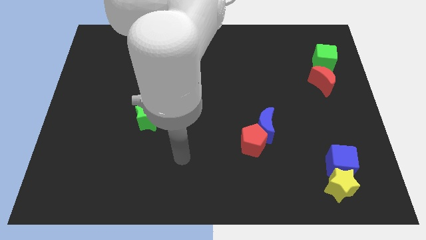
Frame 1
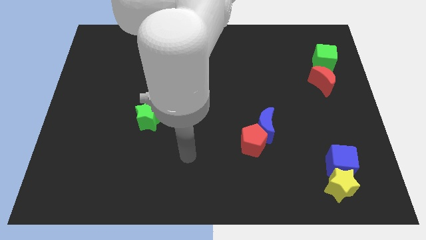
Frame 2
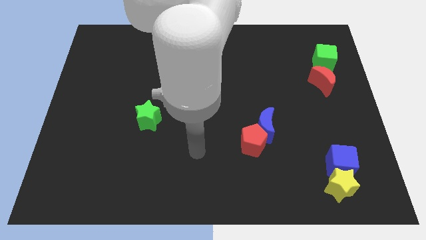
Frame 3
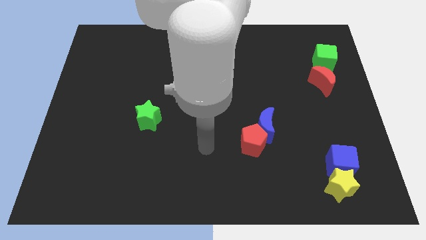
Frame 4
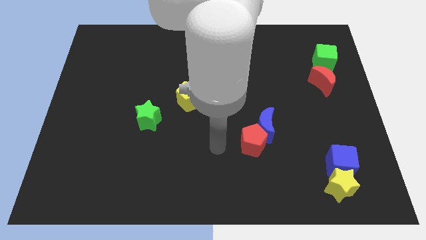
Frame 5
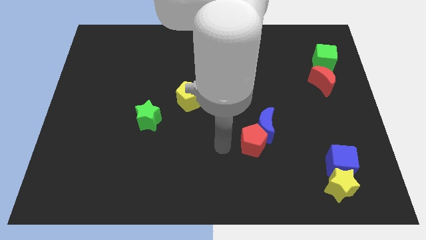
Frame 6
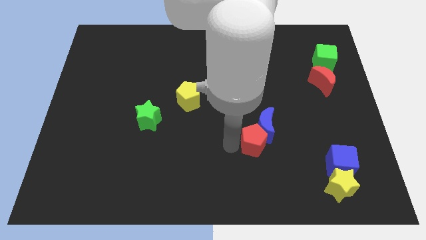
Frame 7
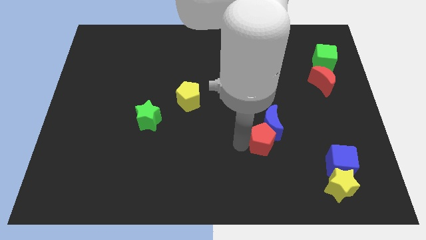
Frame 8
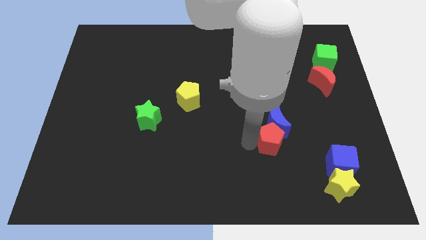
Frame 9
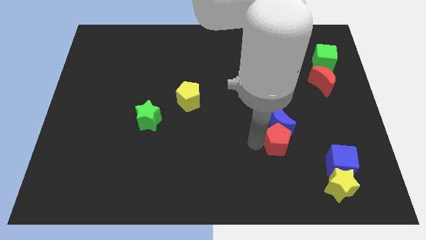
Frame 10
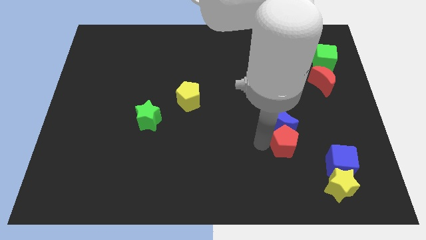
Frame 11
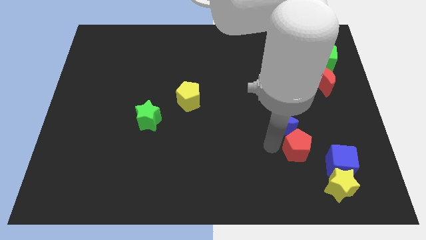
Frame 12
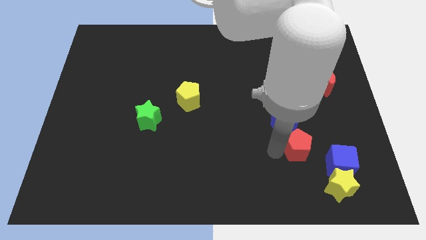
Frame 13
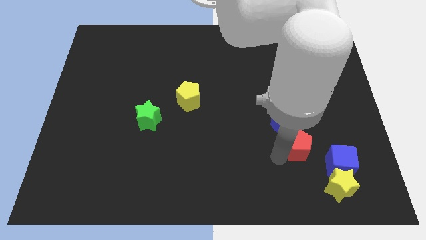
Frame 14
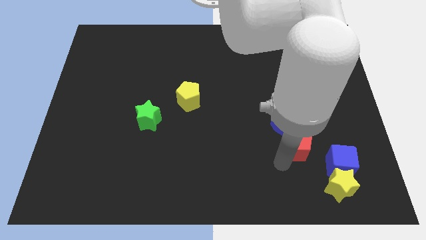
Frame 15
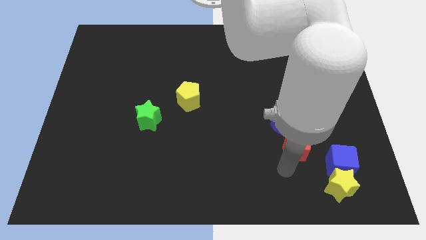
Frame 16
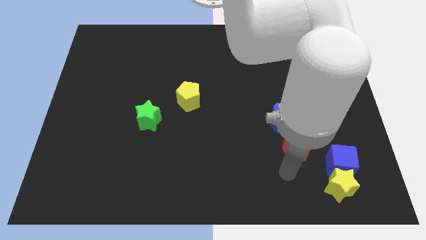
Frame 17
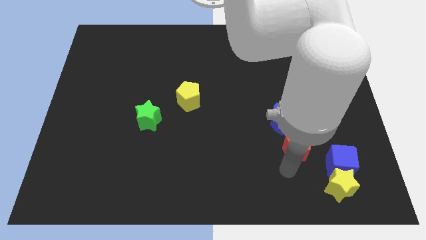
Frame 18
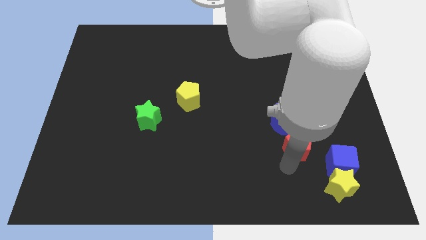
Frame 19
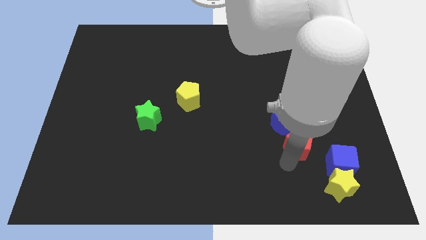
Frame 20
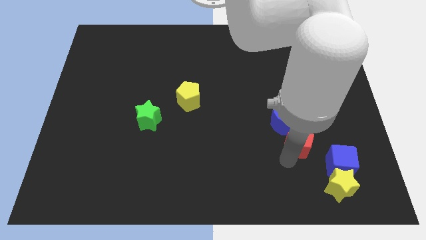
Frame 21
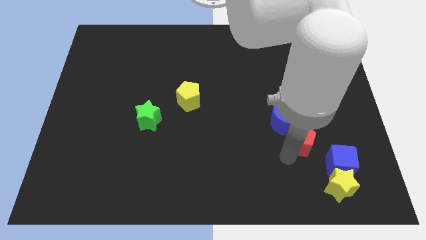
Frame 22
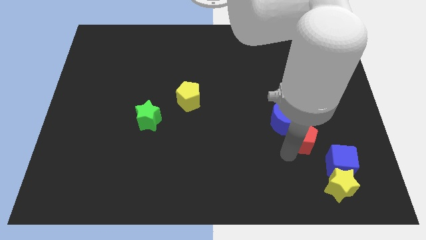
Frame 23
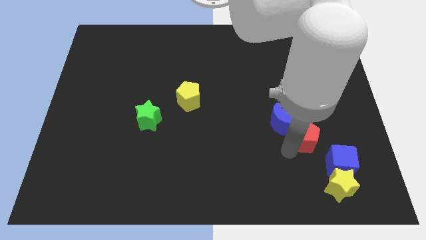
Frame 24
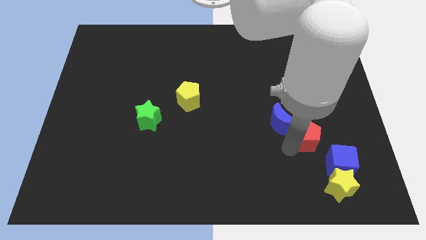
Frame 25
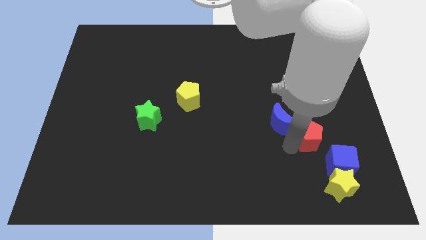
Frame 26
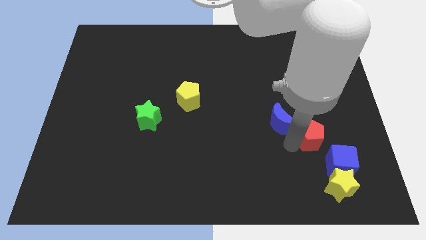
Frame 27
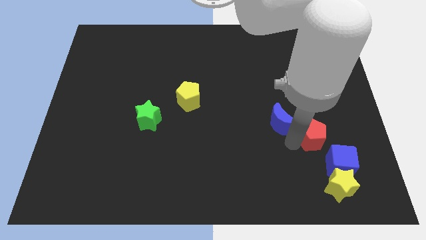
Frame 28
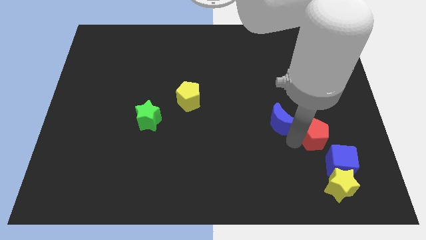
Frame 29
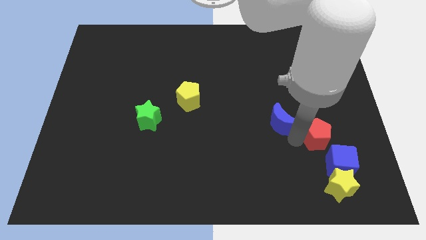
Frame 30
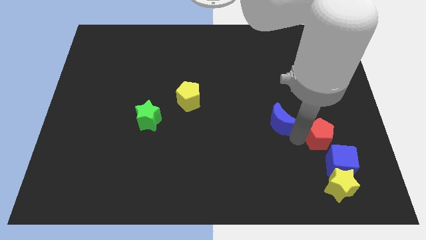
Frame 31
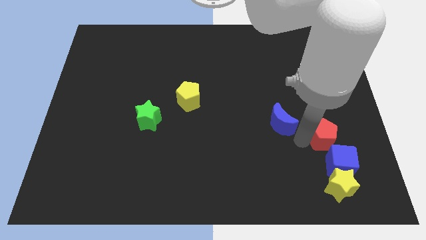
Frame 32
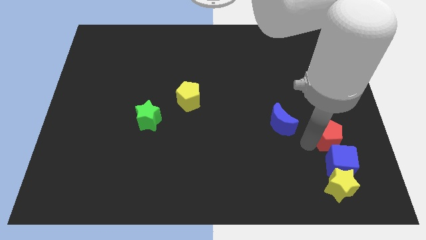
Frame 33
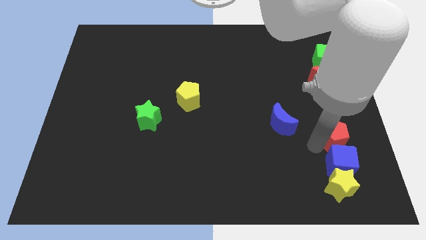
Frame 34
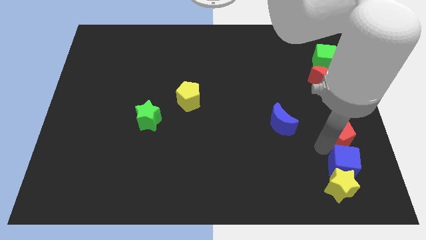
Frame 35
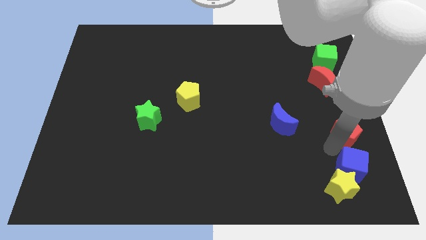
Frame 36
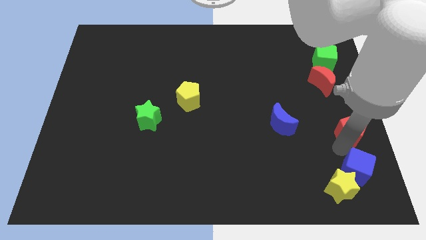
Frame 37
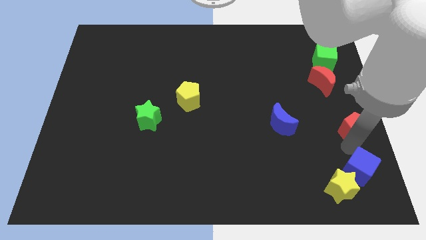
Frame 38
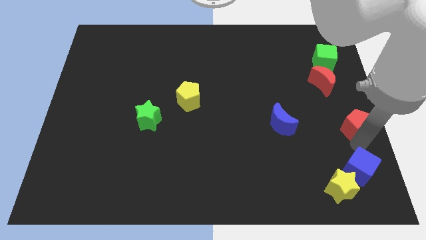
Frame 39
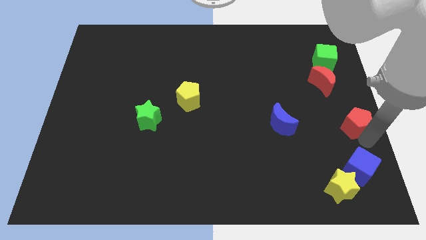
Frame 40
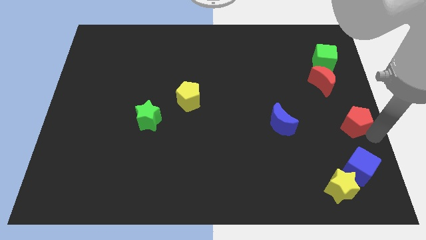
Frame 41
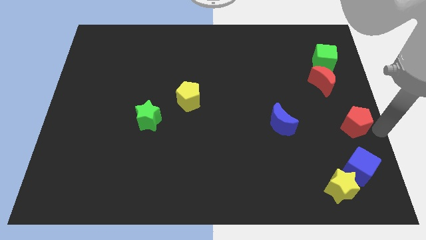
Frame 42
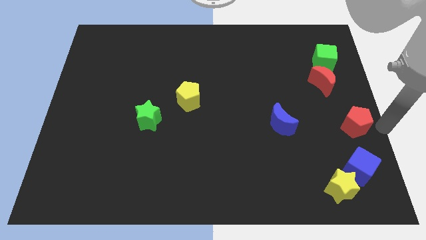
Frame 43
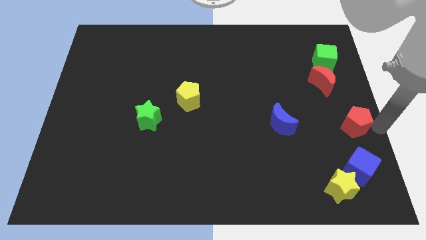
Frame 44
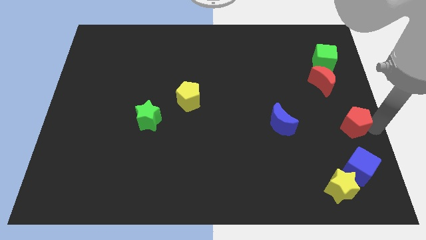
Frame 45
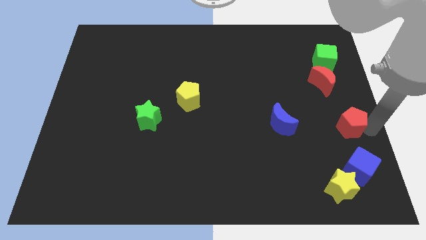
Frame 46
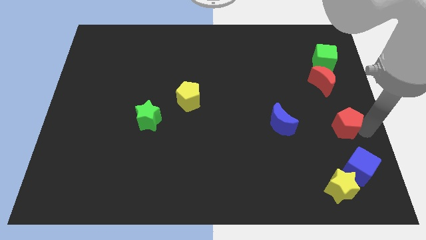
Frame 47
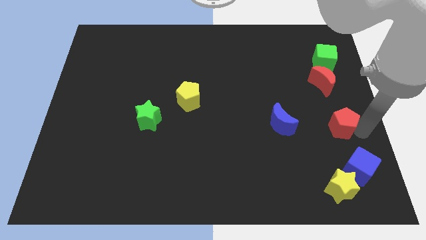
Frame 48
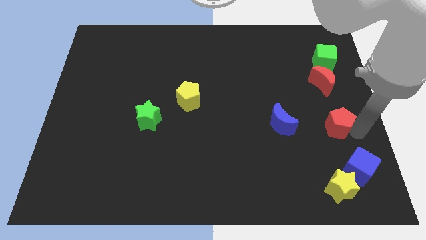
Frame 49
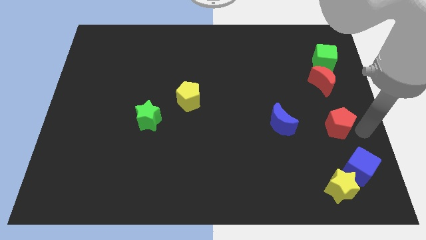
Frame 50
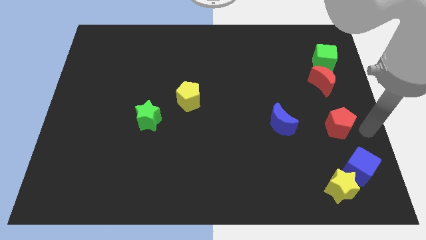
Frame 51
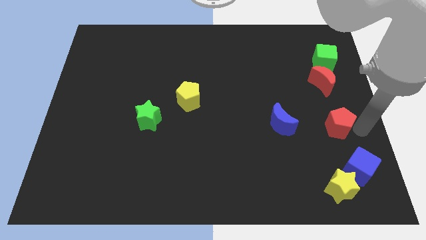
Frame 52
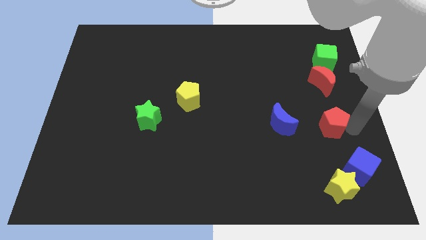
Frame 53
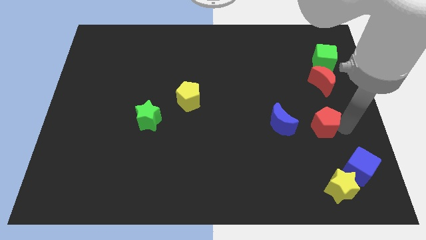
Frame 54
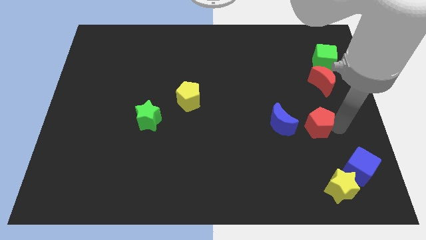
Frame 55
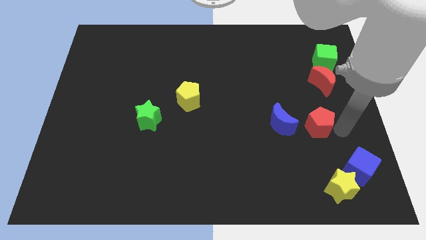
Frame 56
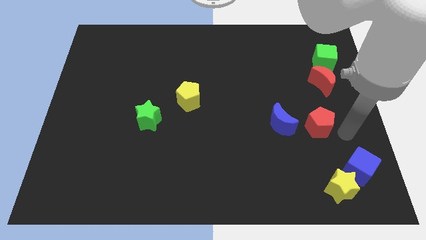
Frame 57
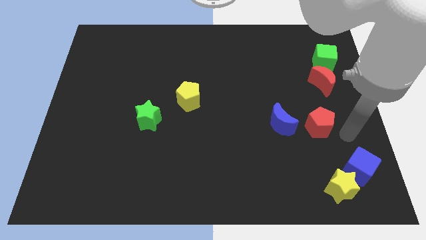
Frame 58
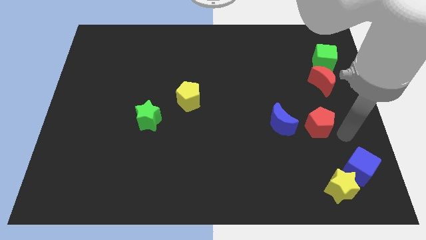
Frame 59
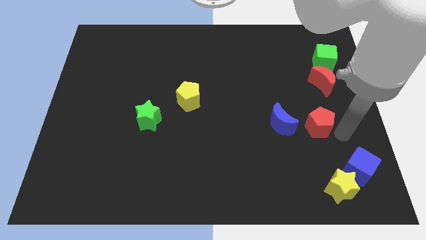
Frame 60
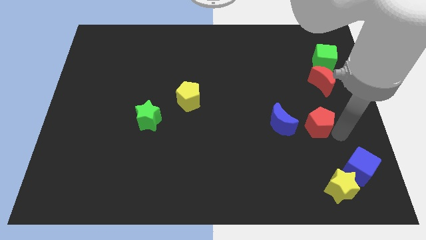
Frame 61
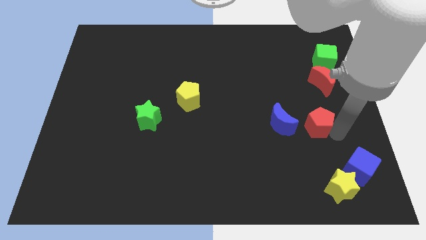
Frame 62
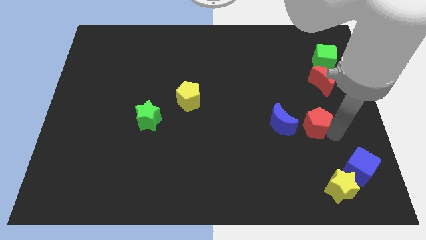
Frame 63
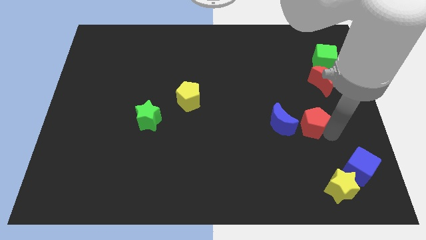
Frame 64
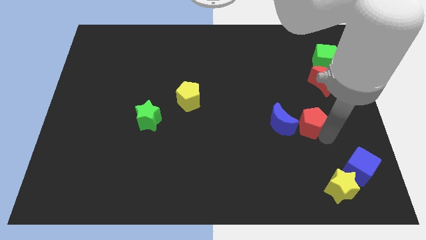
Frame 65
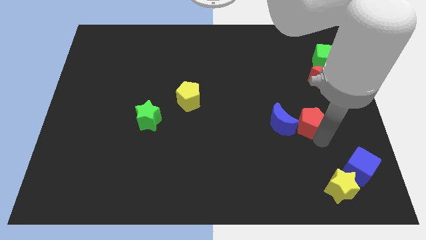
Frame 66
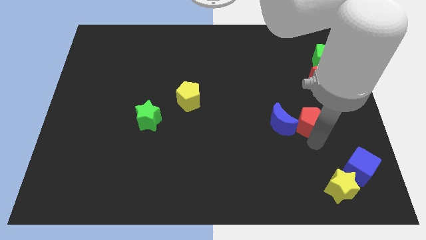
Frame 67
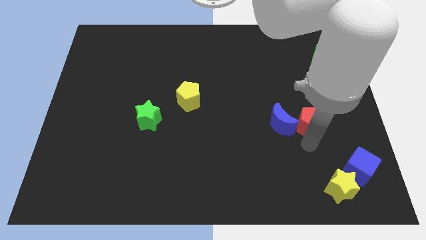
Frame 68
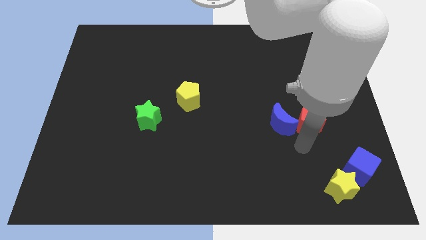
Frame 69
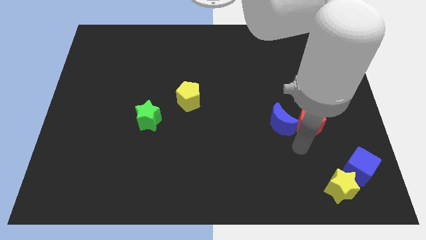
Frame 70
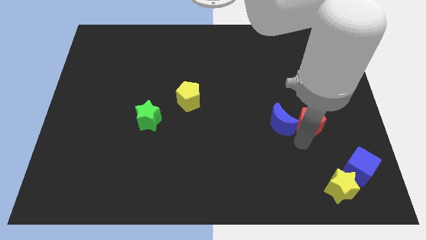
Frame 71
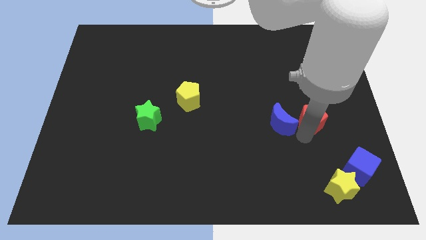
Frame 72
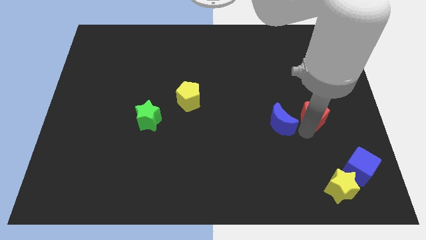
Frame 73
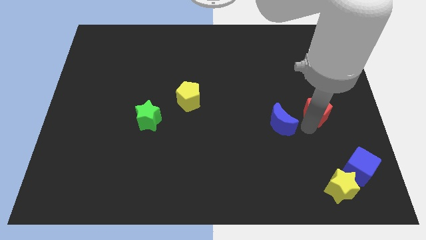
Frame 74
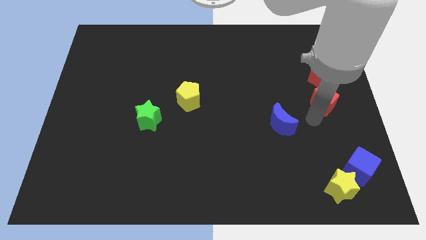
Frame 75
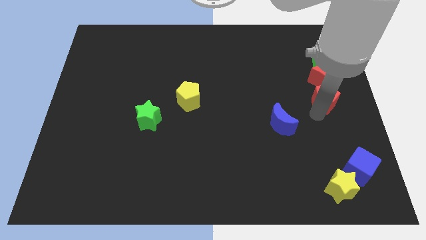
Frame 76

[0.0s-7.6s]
push the red pentagon next to the red moon
